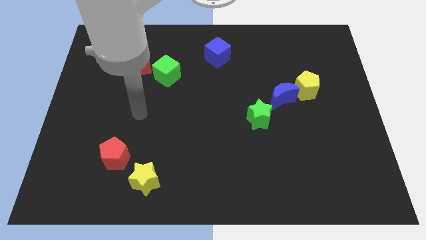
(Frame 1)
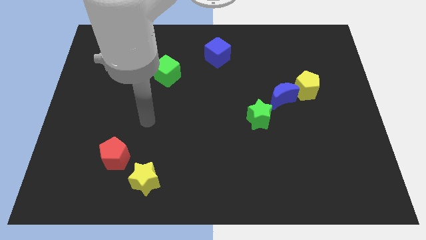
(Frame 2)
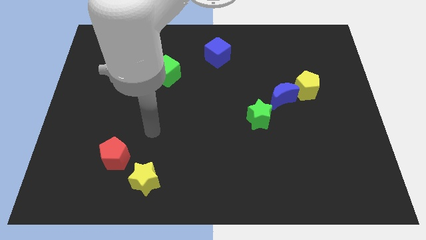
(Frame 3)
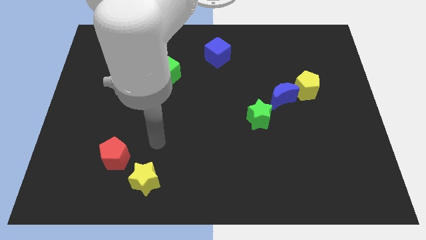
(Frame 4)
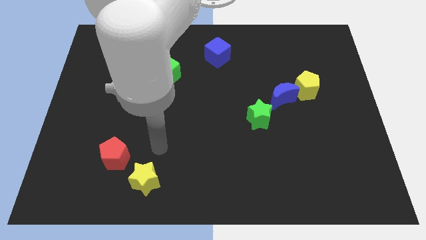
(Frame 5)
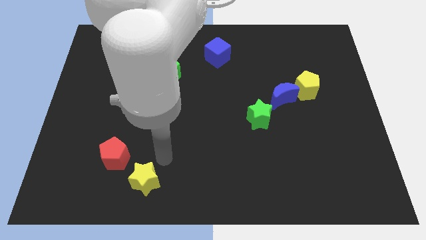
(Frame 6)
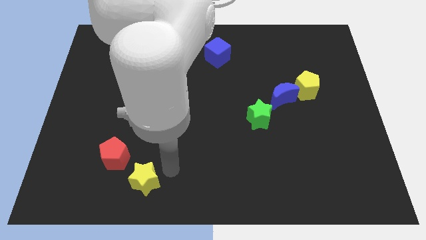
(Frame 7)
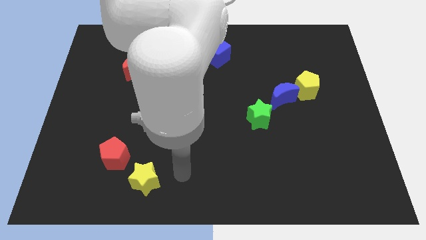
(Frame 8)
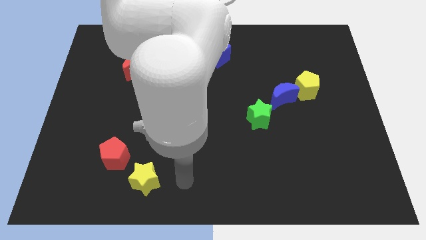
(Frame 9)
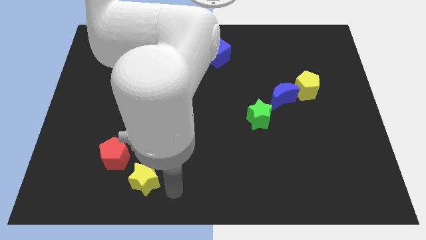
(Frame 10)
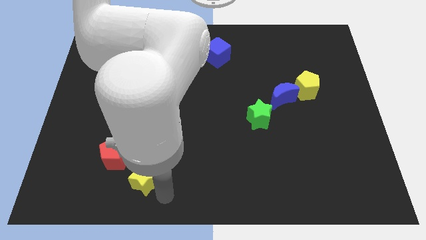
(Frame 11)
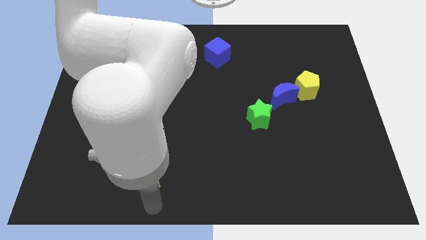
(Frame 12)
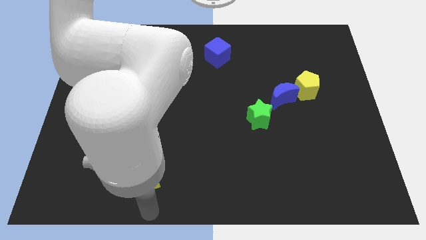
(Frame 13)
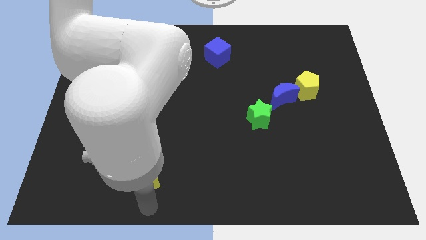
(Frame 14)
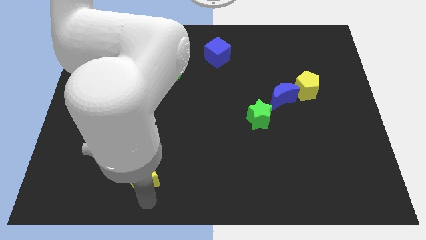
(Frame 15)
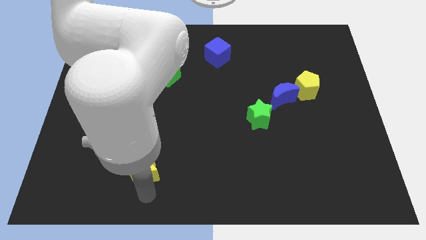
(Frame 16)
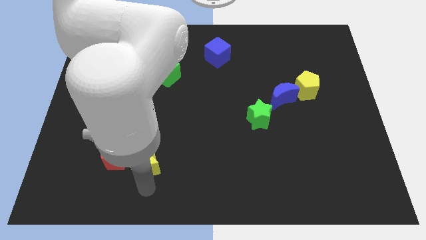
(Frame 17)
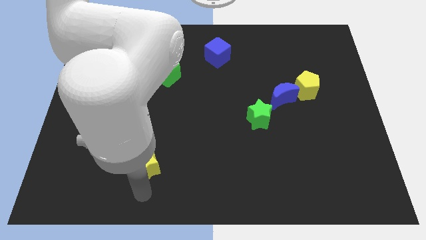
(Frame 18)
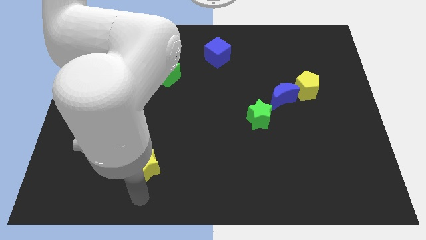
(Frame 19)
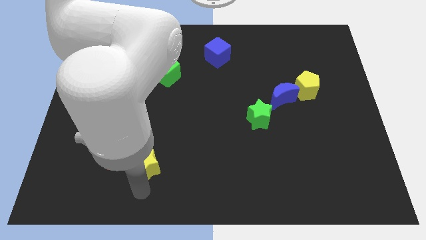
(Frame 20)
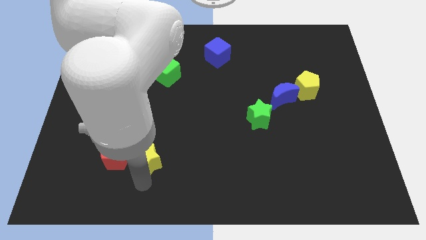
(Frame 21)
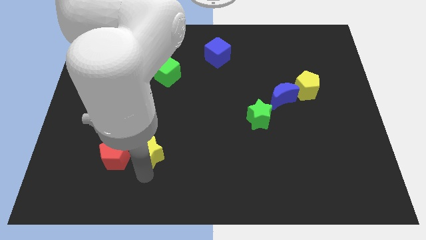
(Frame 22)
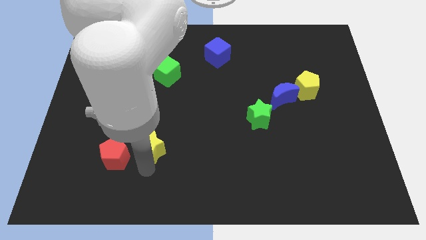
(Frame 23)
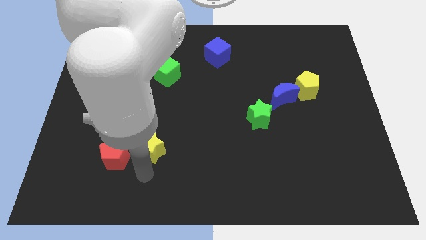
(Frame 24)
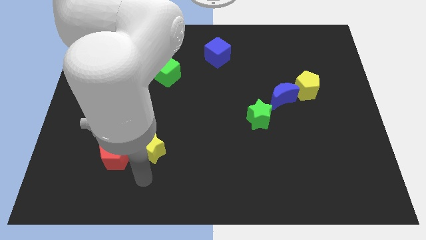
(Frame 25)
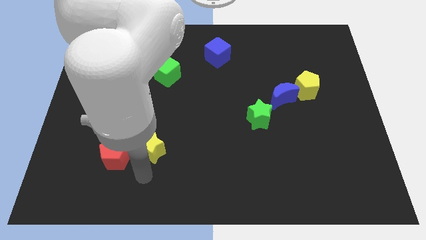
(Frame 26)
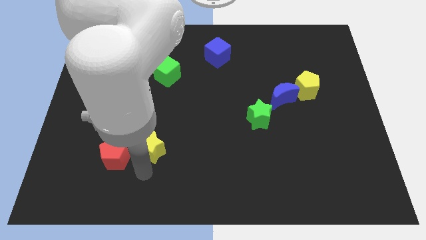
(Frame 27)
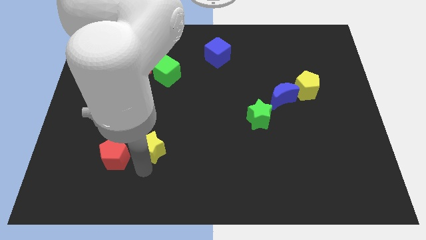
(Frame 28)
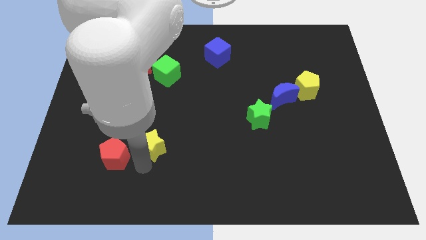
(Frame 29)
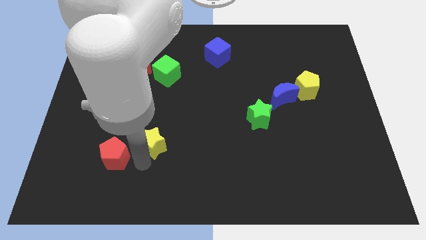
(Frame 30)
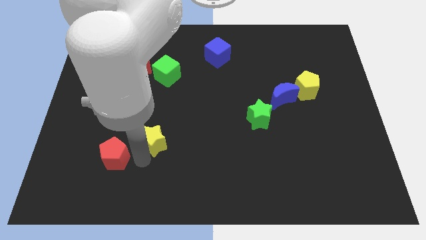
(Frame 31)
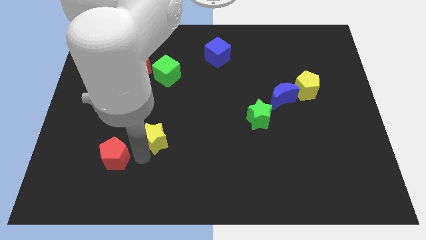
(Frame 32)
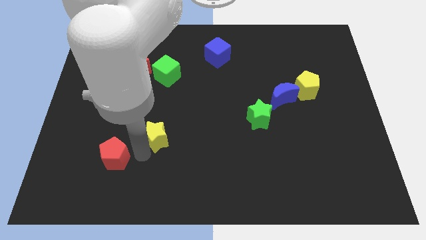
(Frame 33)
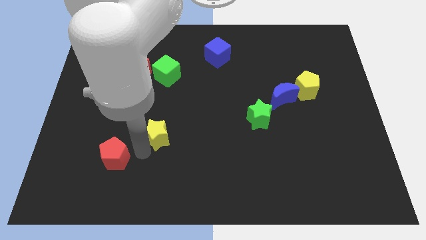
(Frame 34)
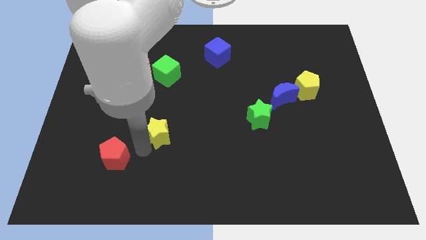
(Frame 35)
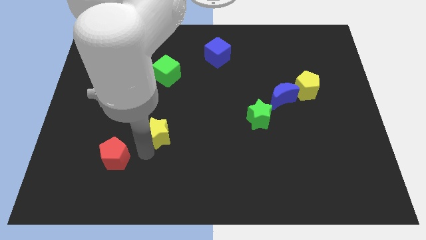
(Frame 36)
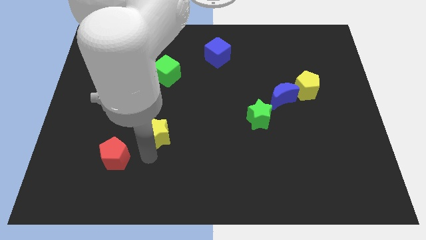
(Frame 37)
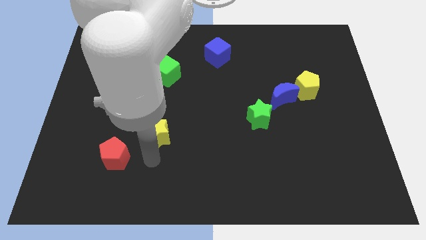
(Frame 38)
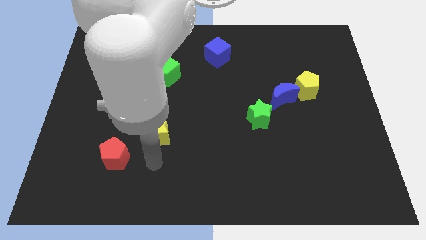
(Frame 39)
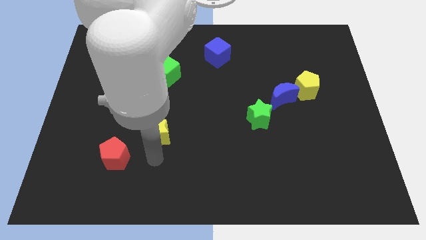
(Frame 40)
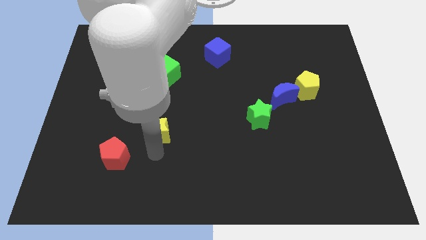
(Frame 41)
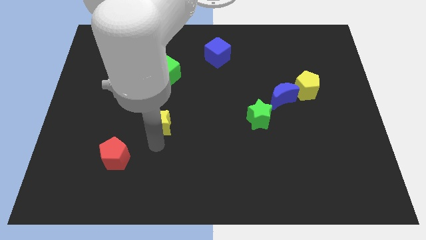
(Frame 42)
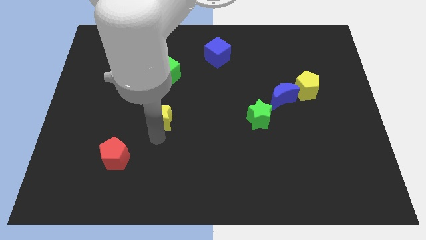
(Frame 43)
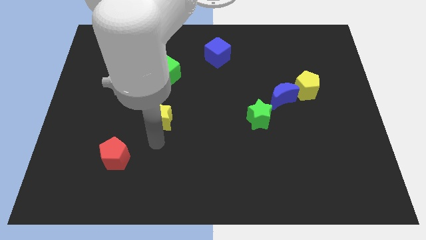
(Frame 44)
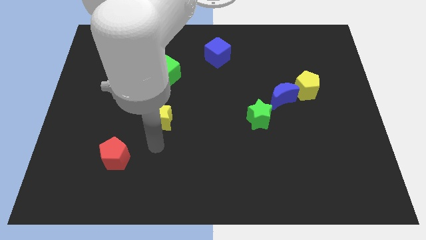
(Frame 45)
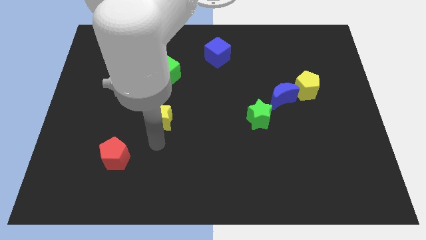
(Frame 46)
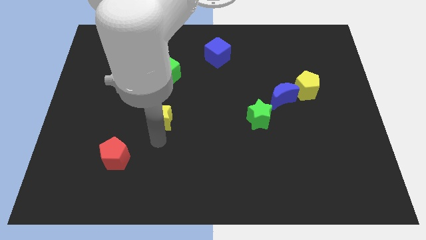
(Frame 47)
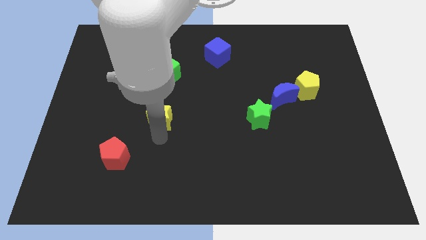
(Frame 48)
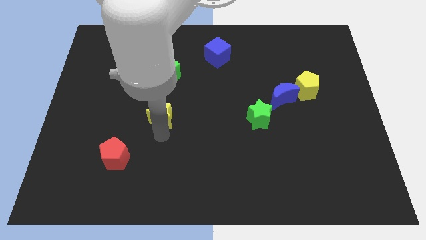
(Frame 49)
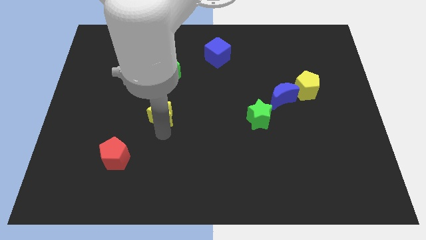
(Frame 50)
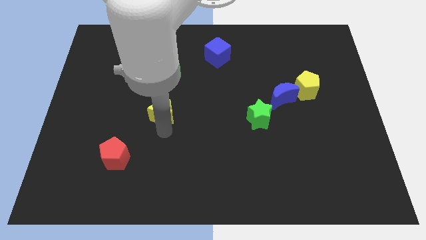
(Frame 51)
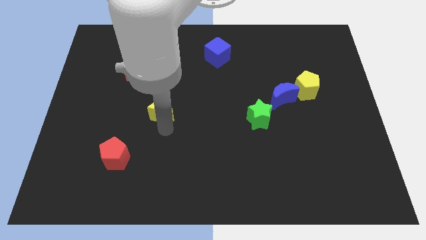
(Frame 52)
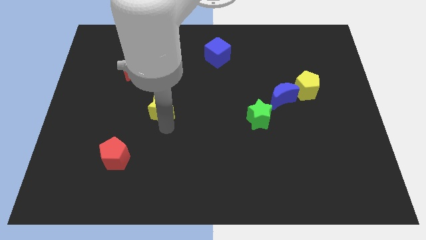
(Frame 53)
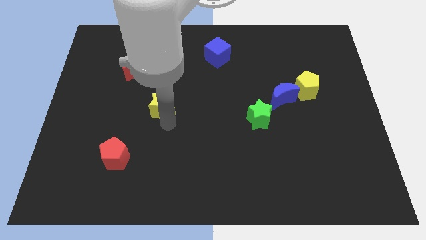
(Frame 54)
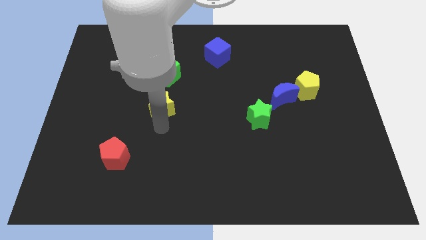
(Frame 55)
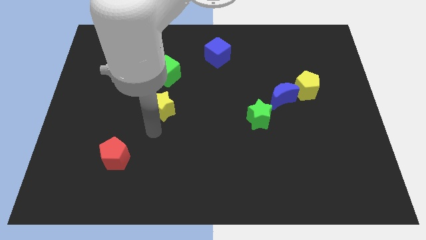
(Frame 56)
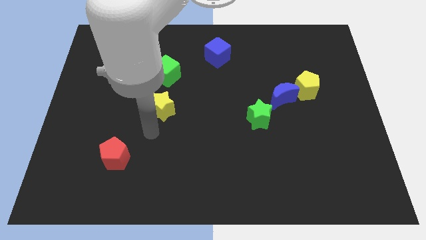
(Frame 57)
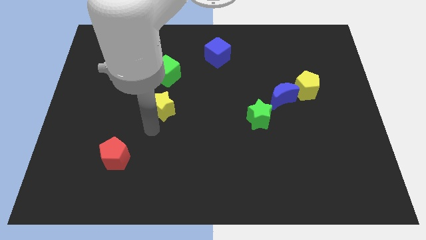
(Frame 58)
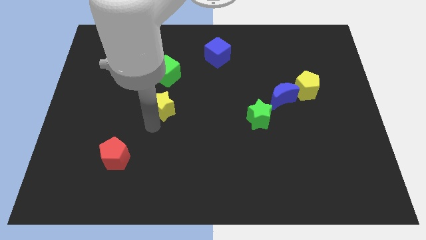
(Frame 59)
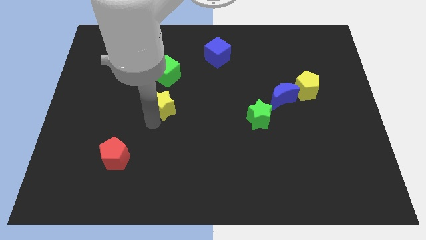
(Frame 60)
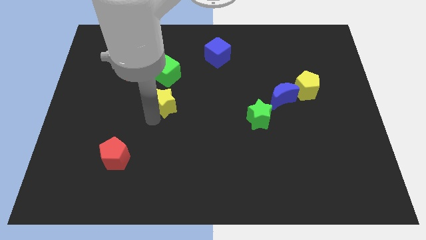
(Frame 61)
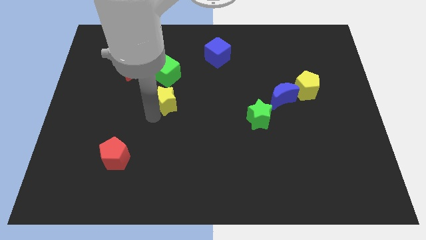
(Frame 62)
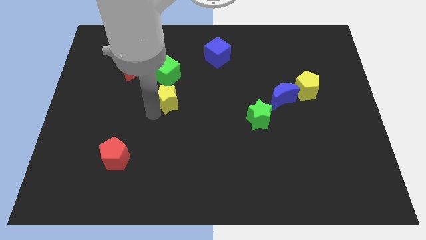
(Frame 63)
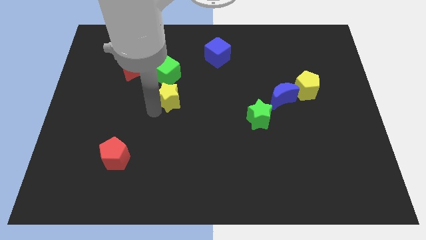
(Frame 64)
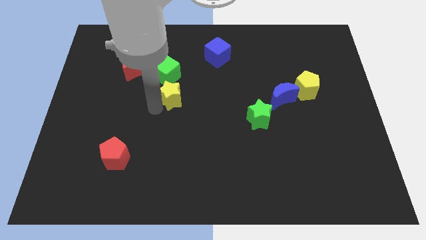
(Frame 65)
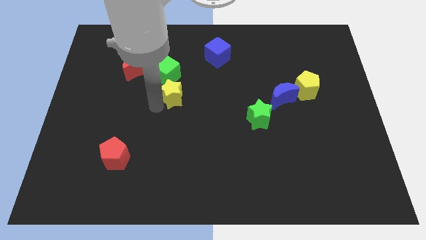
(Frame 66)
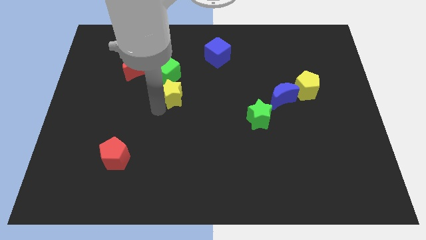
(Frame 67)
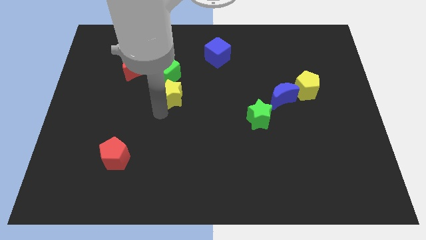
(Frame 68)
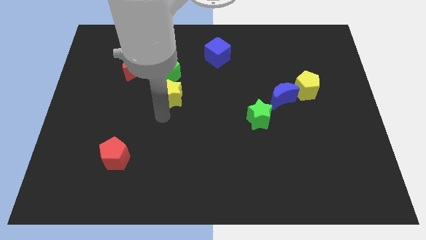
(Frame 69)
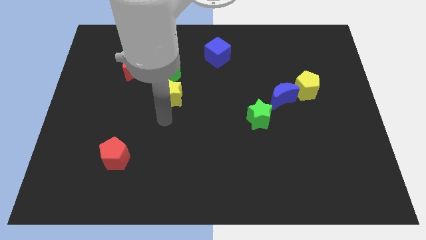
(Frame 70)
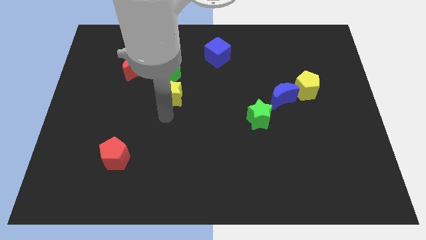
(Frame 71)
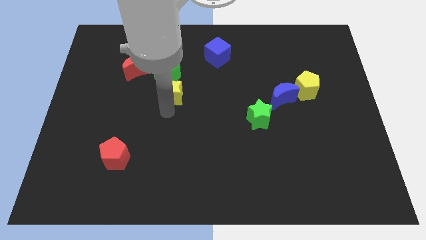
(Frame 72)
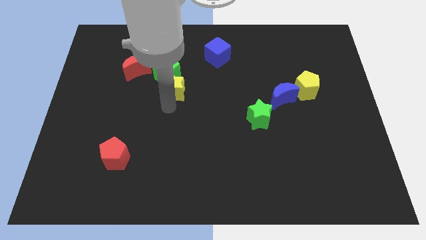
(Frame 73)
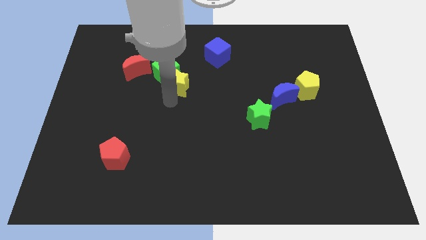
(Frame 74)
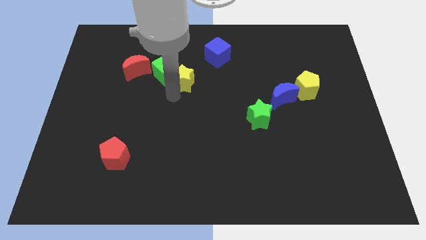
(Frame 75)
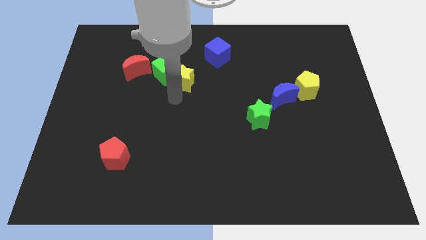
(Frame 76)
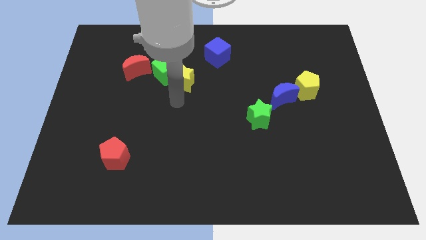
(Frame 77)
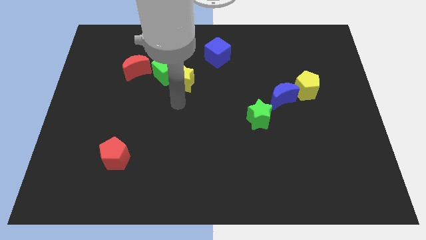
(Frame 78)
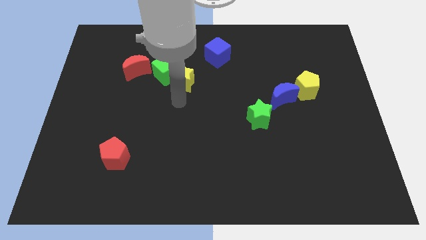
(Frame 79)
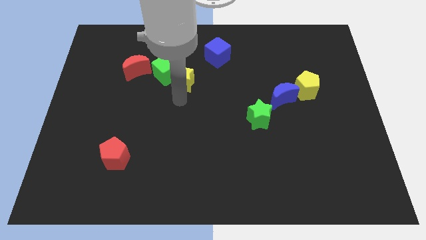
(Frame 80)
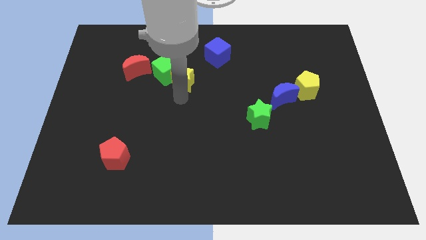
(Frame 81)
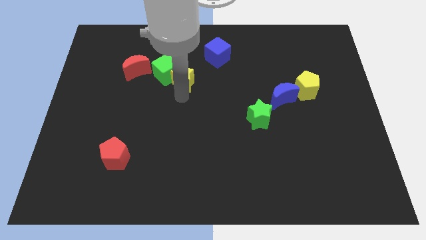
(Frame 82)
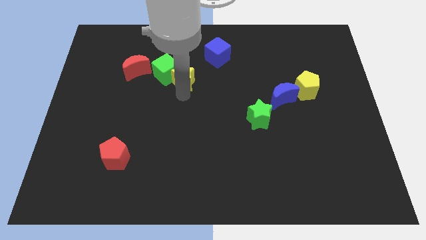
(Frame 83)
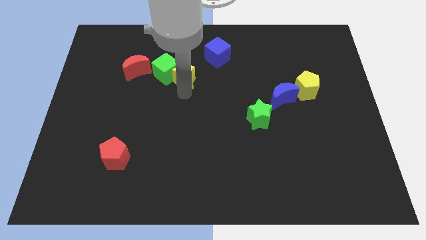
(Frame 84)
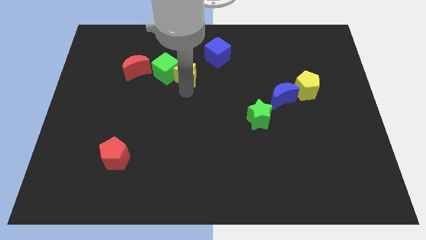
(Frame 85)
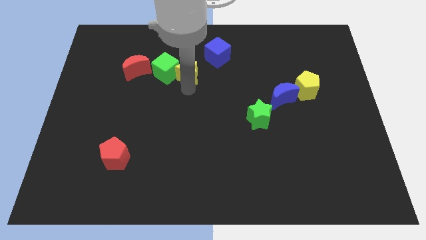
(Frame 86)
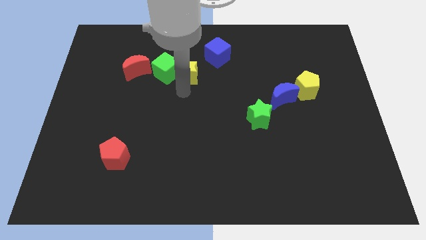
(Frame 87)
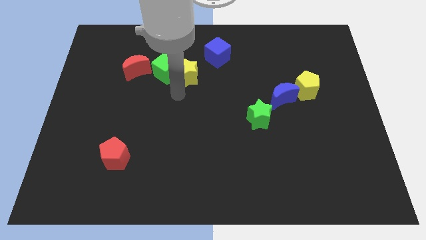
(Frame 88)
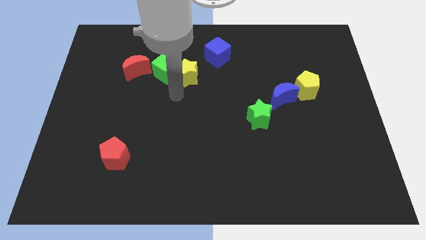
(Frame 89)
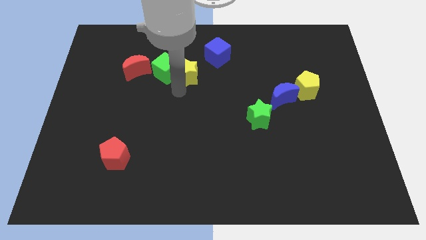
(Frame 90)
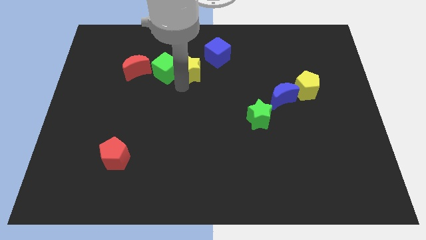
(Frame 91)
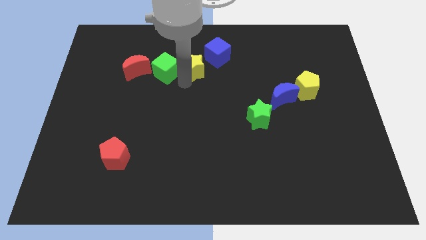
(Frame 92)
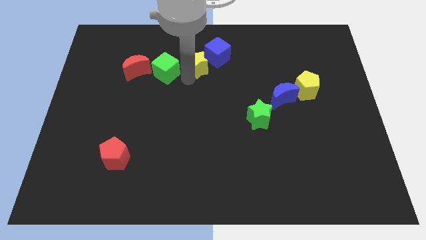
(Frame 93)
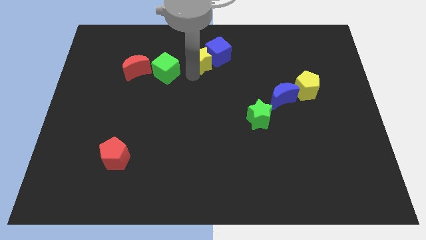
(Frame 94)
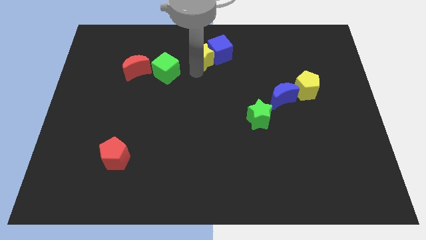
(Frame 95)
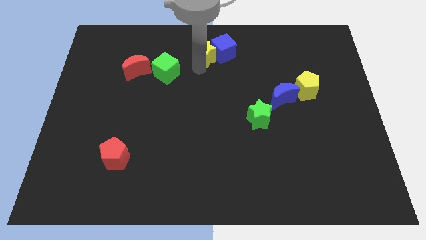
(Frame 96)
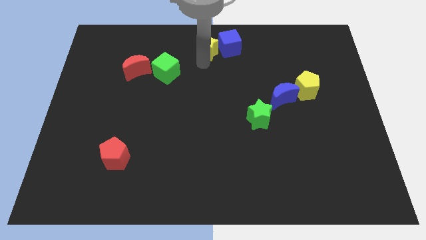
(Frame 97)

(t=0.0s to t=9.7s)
slide the yellow star to the top
